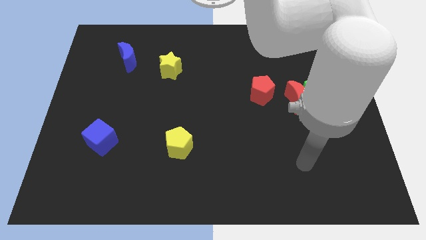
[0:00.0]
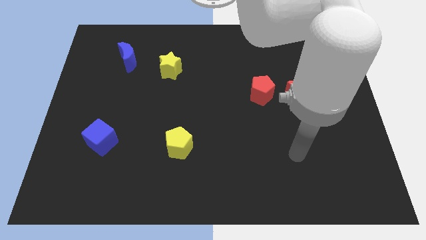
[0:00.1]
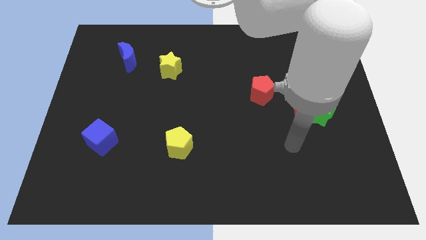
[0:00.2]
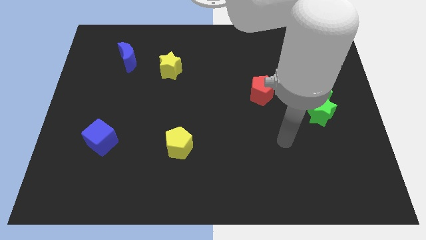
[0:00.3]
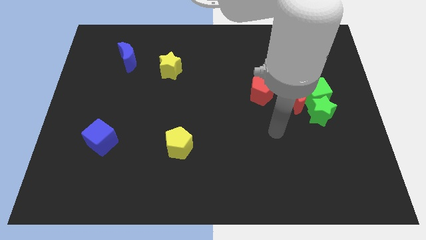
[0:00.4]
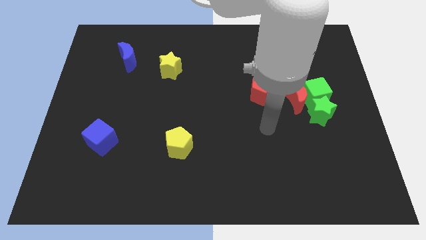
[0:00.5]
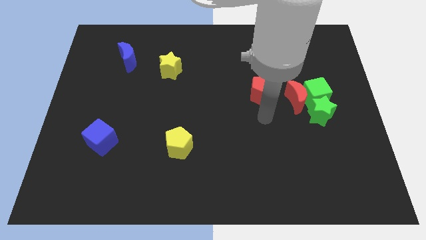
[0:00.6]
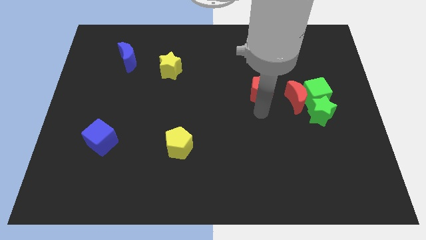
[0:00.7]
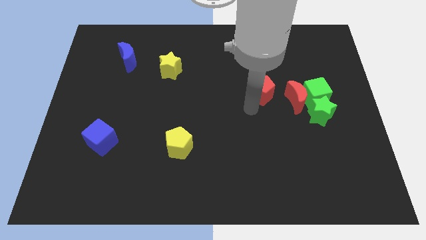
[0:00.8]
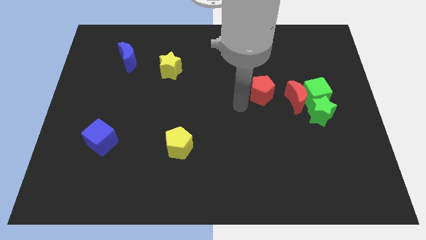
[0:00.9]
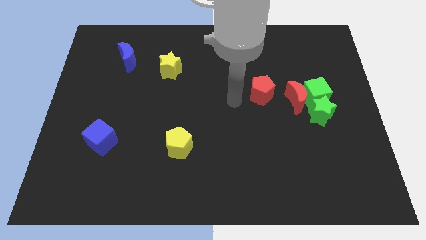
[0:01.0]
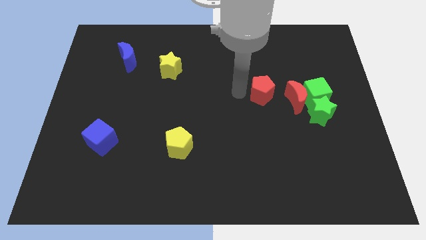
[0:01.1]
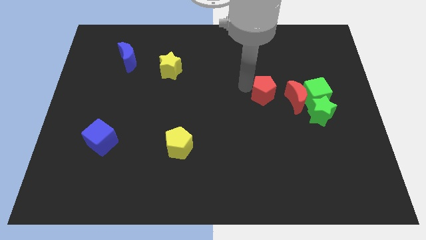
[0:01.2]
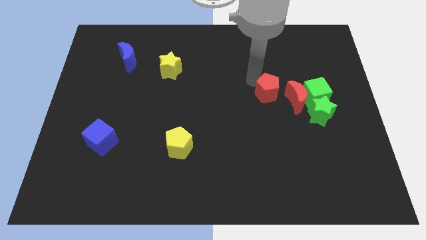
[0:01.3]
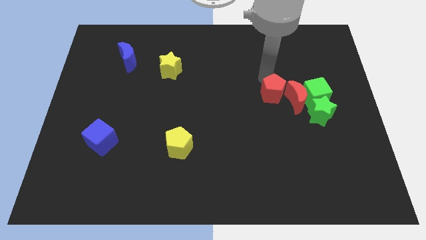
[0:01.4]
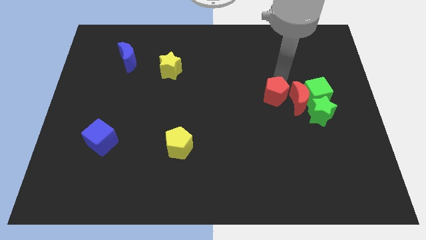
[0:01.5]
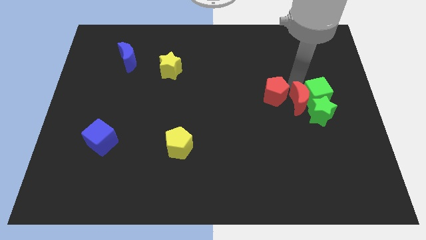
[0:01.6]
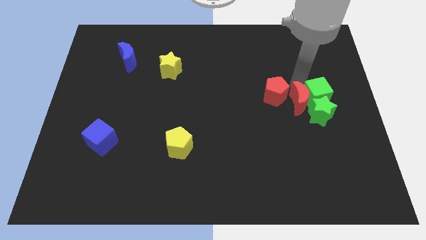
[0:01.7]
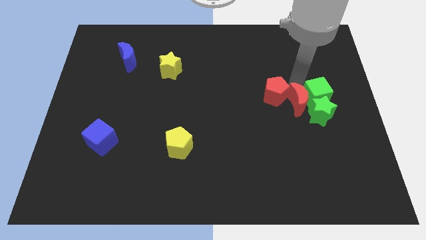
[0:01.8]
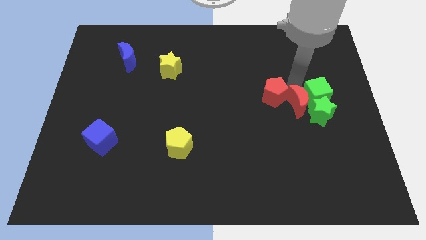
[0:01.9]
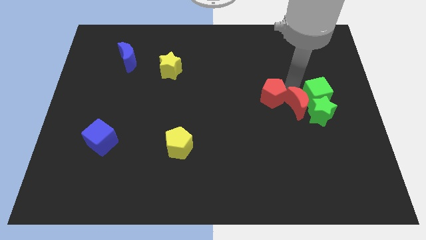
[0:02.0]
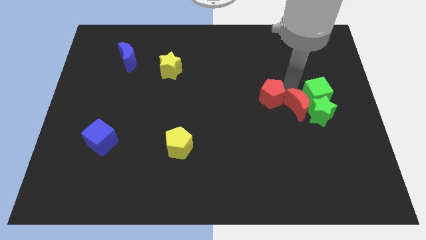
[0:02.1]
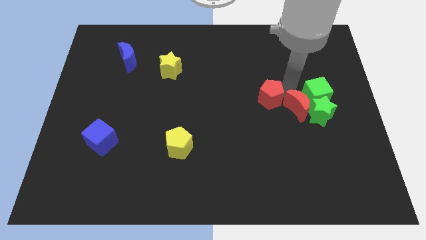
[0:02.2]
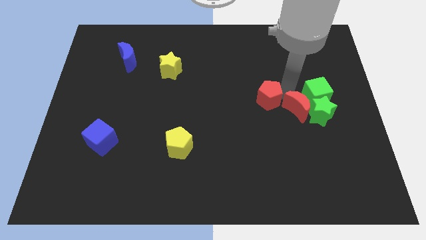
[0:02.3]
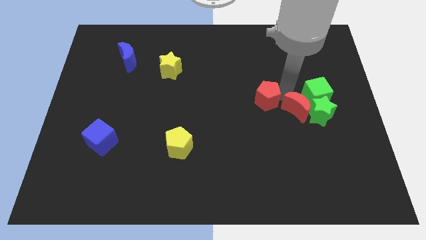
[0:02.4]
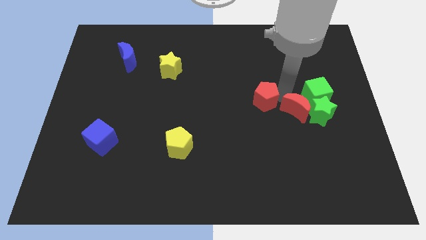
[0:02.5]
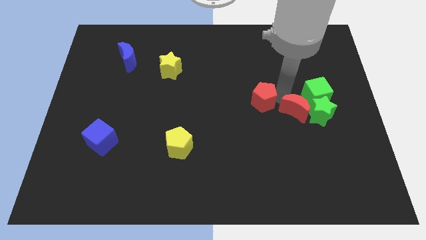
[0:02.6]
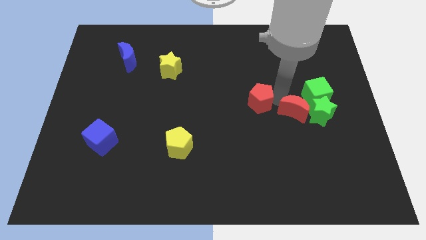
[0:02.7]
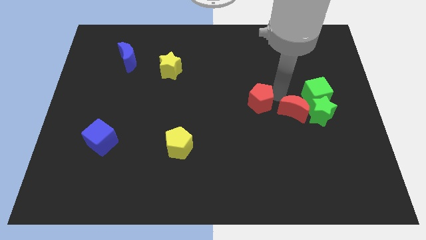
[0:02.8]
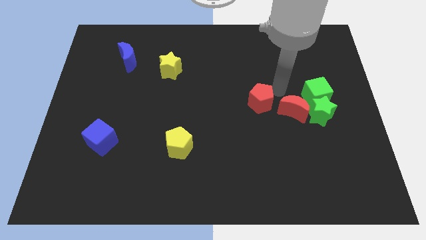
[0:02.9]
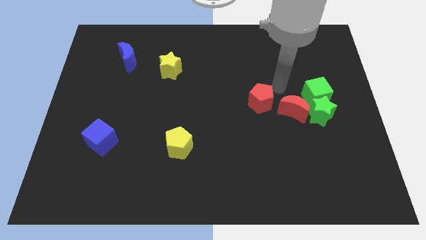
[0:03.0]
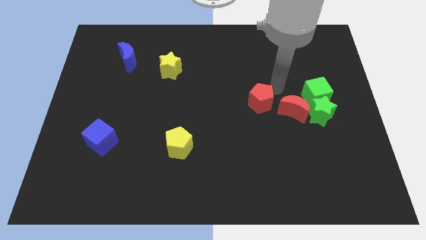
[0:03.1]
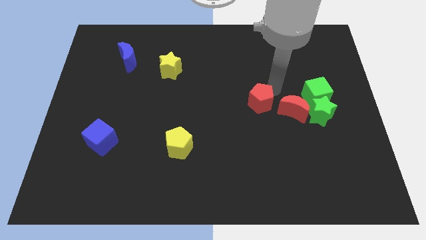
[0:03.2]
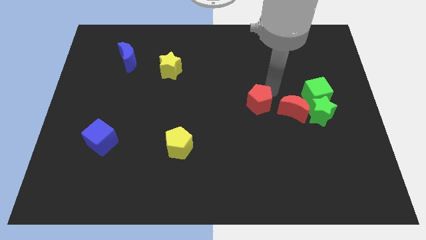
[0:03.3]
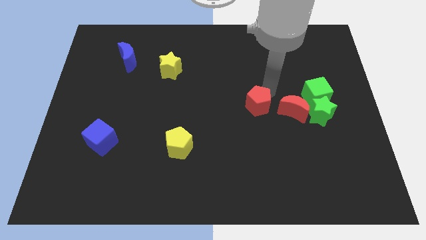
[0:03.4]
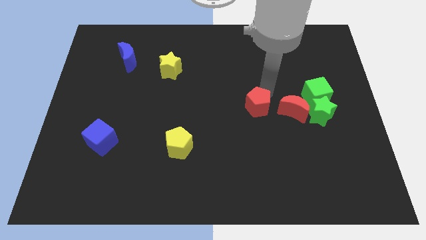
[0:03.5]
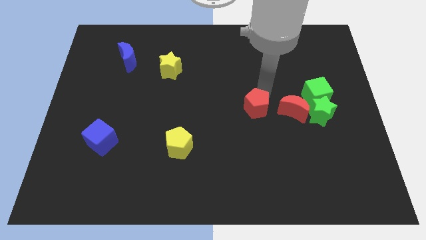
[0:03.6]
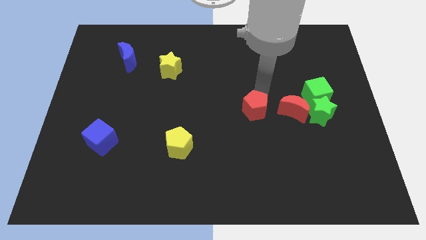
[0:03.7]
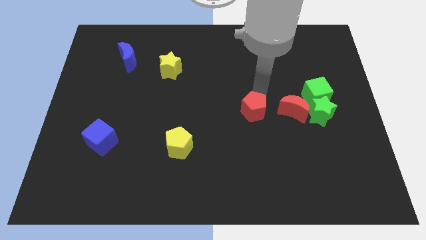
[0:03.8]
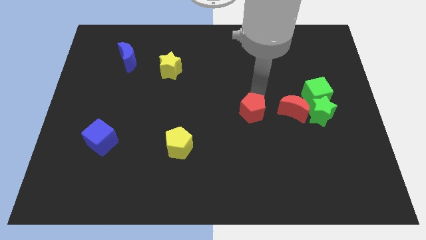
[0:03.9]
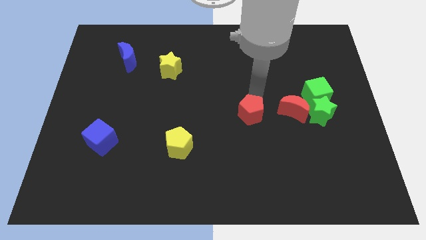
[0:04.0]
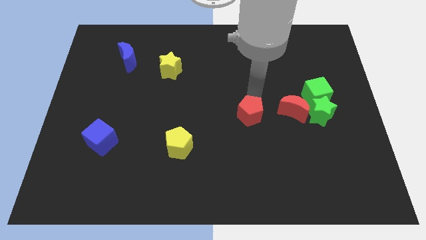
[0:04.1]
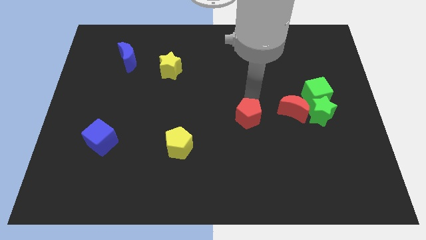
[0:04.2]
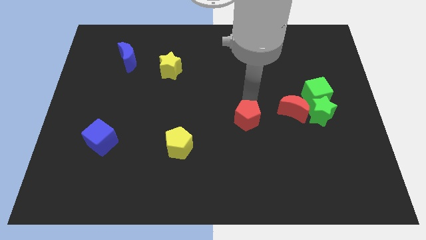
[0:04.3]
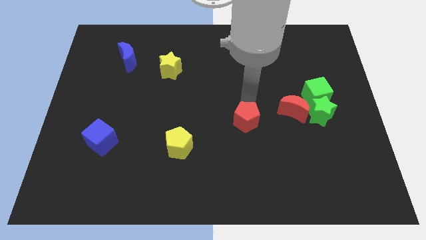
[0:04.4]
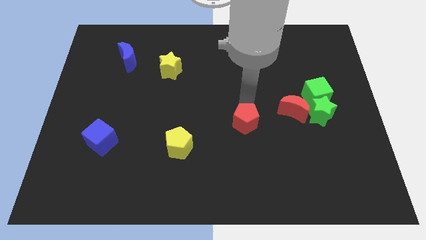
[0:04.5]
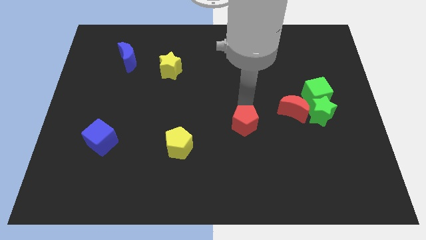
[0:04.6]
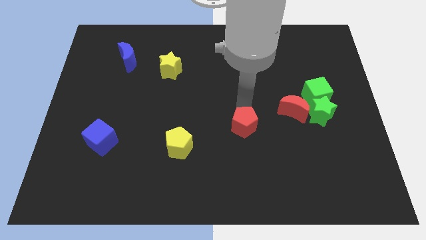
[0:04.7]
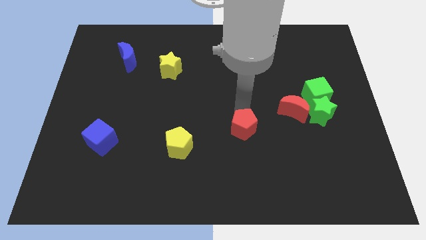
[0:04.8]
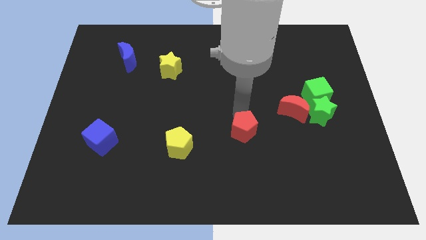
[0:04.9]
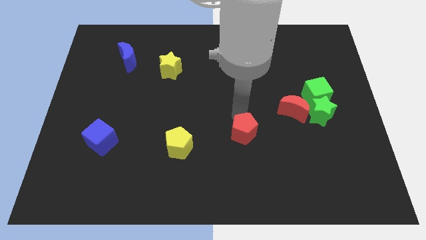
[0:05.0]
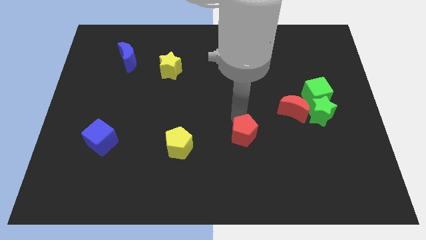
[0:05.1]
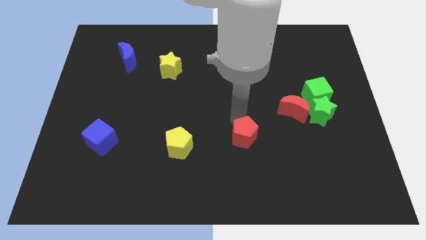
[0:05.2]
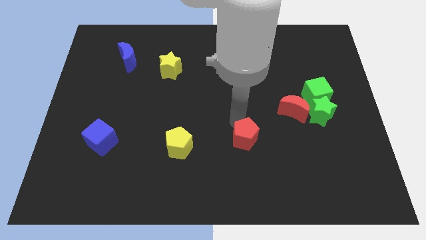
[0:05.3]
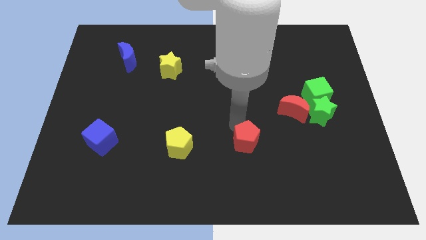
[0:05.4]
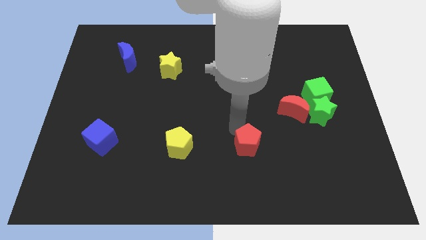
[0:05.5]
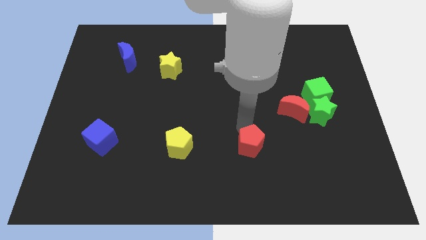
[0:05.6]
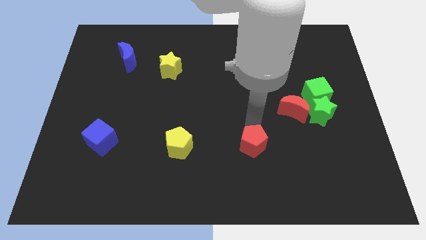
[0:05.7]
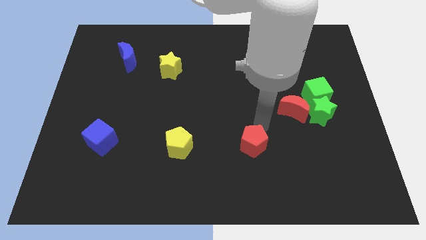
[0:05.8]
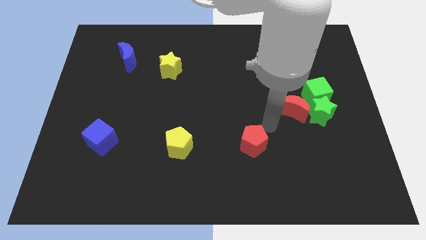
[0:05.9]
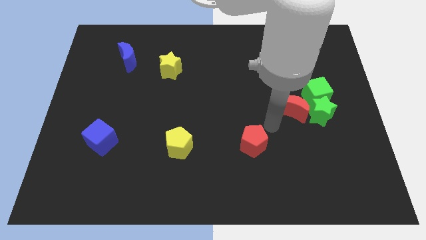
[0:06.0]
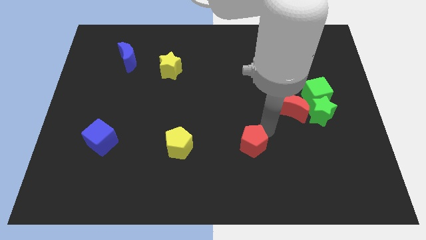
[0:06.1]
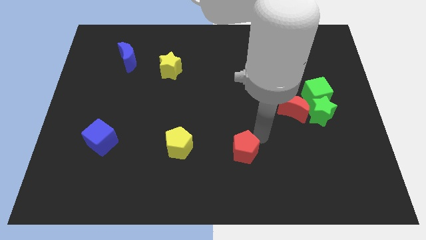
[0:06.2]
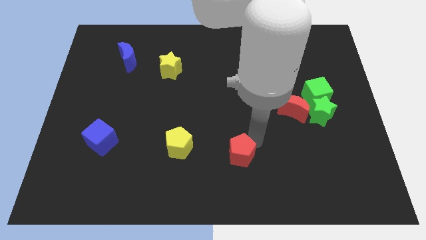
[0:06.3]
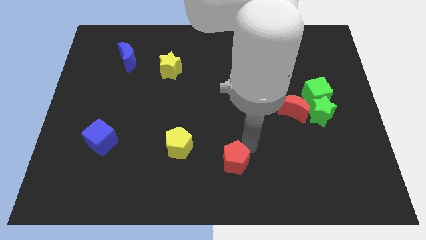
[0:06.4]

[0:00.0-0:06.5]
push the red pentagon to the bottom side

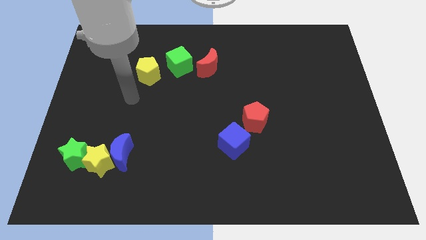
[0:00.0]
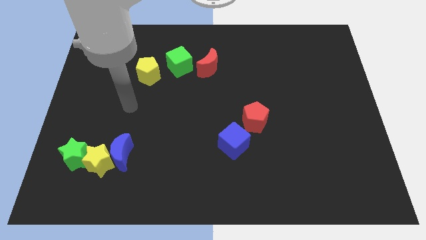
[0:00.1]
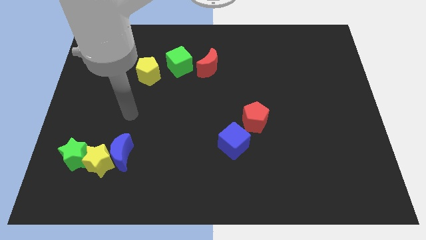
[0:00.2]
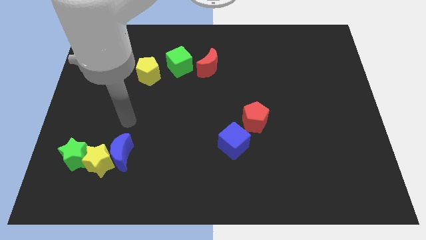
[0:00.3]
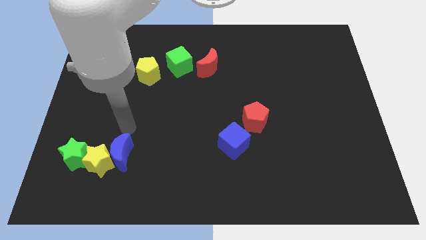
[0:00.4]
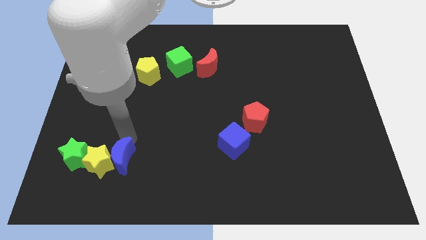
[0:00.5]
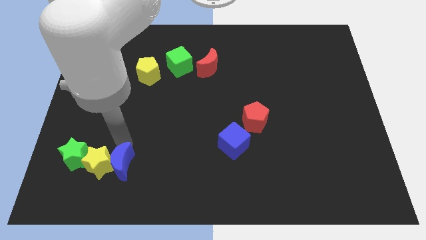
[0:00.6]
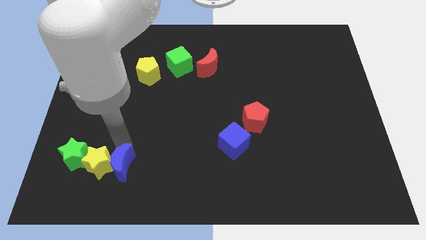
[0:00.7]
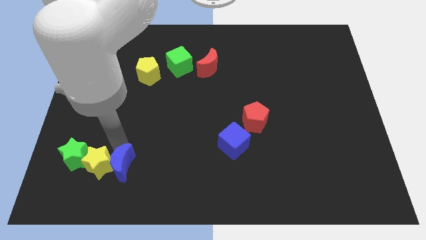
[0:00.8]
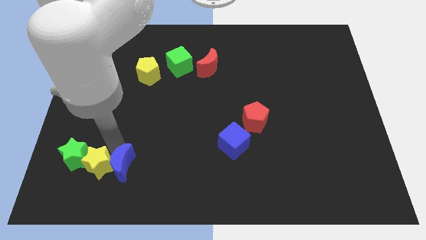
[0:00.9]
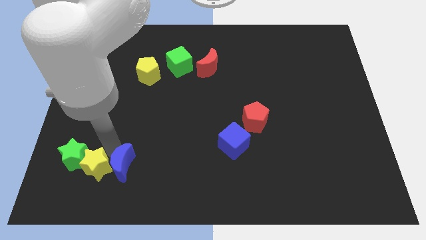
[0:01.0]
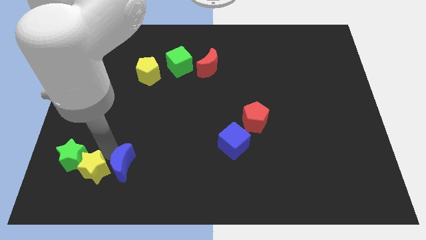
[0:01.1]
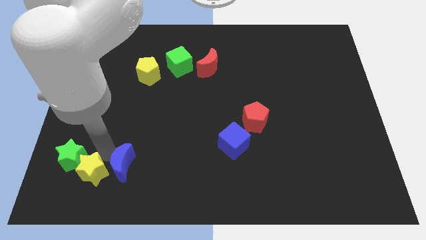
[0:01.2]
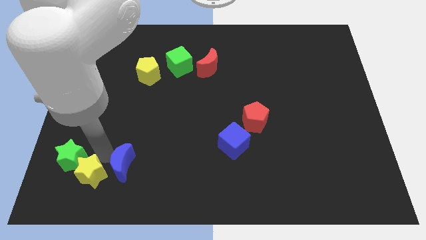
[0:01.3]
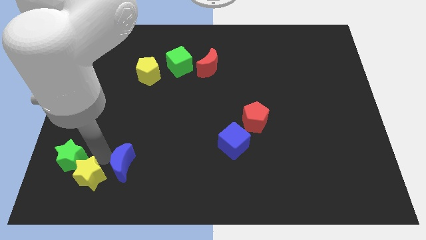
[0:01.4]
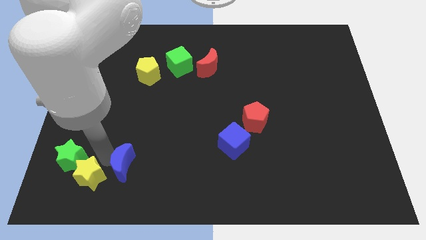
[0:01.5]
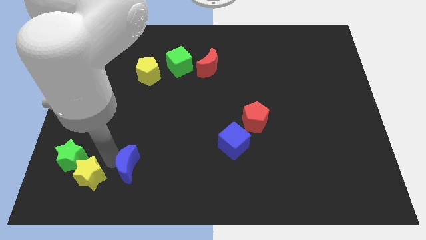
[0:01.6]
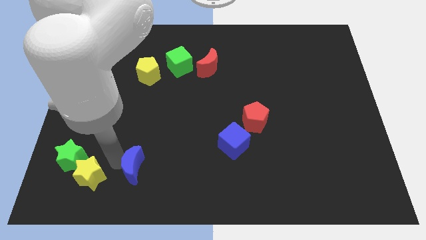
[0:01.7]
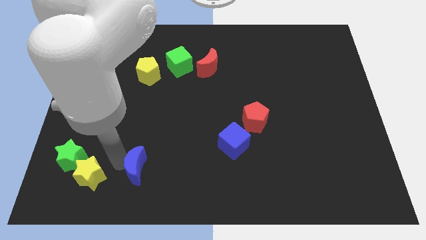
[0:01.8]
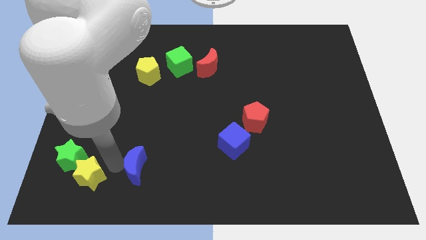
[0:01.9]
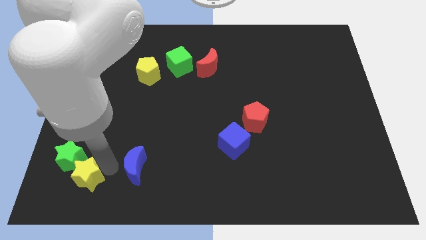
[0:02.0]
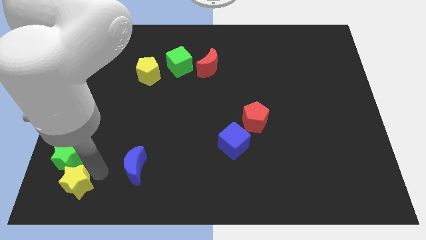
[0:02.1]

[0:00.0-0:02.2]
put the yellow star to the bottom left
